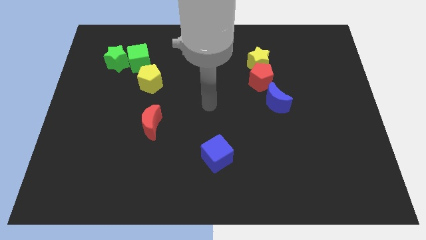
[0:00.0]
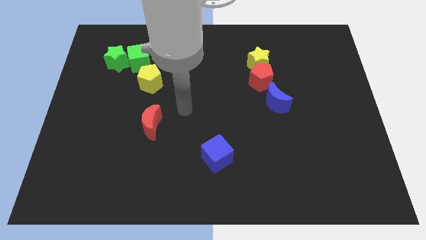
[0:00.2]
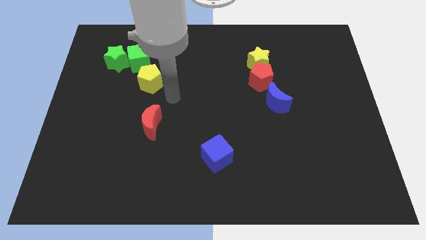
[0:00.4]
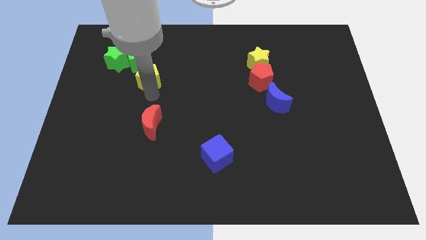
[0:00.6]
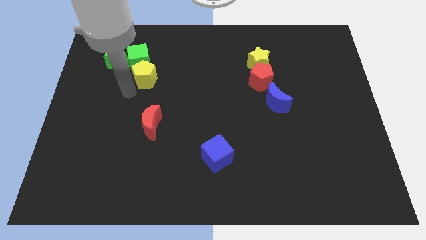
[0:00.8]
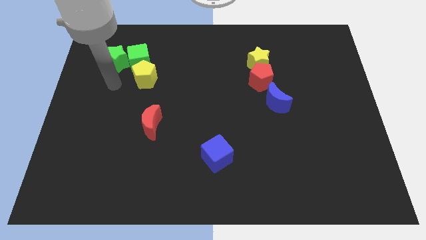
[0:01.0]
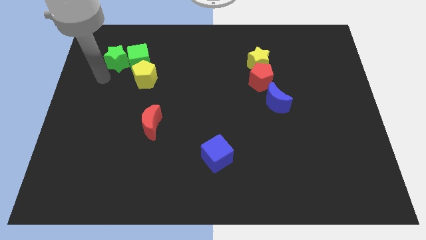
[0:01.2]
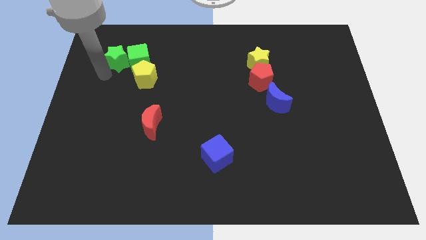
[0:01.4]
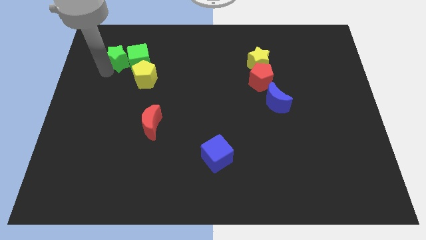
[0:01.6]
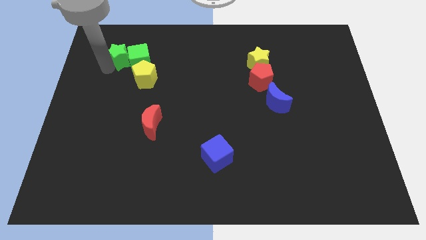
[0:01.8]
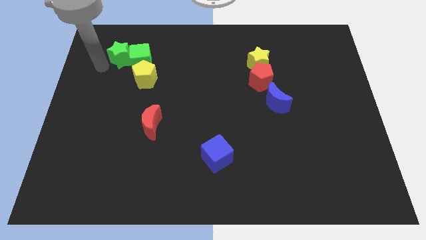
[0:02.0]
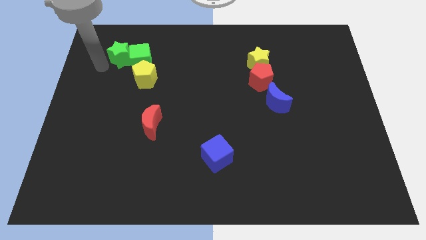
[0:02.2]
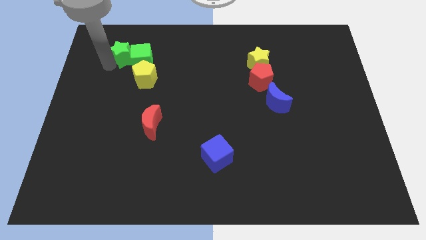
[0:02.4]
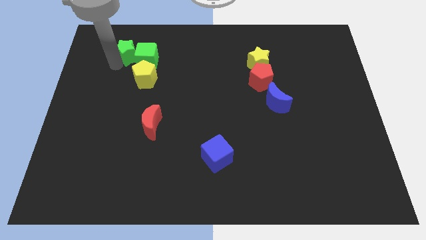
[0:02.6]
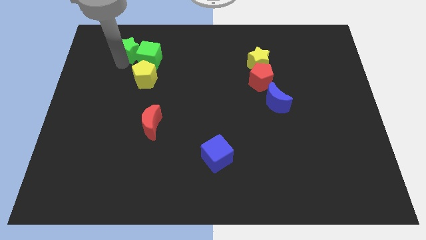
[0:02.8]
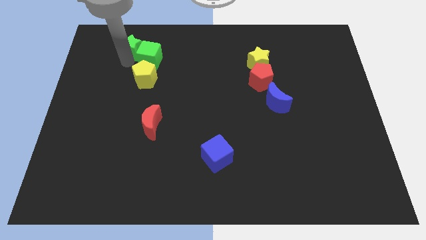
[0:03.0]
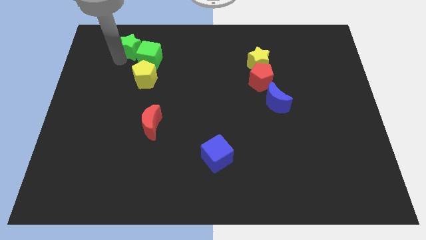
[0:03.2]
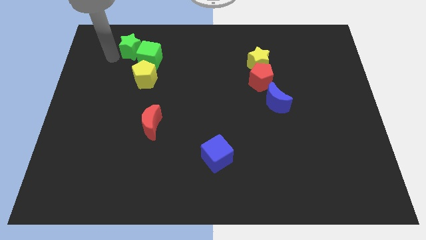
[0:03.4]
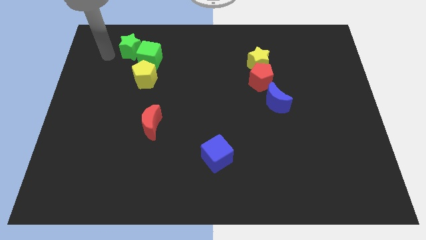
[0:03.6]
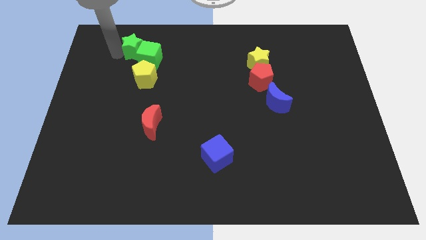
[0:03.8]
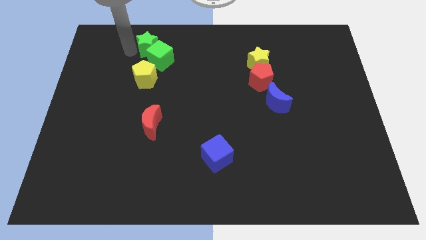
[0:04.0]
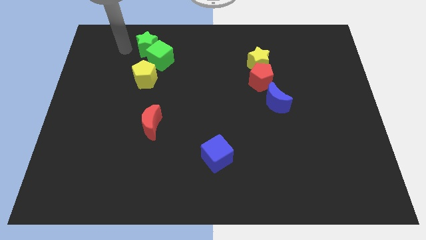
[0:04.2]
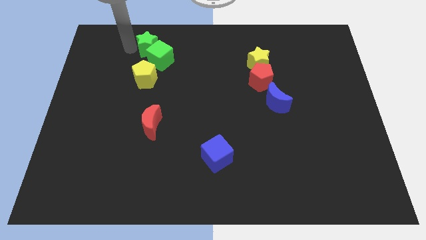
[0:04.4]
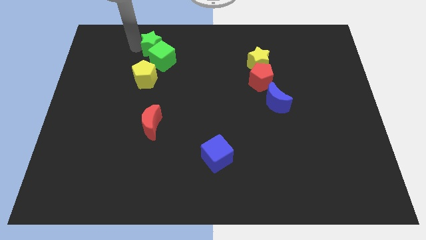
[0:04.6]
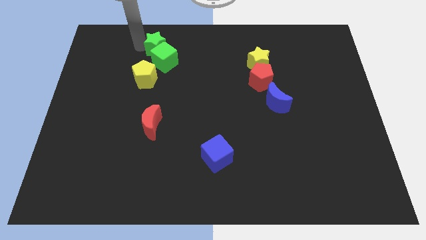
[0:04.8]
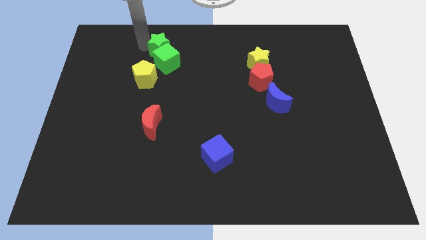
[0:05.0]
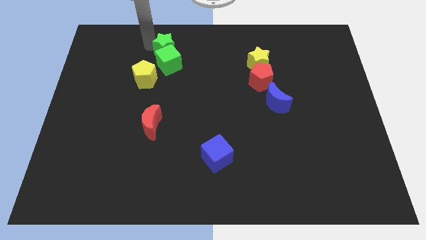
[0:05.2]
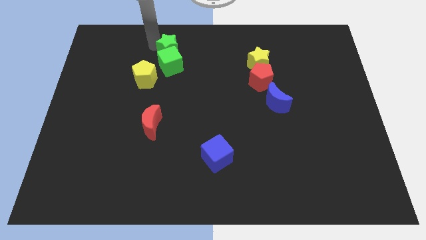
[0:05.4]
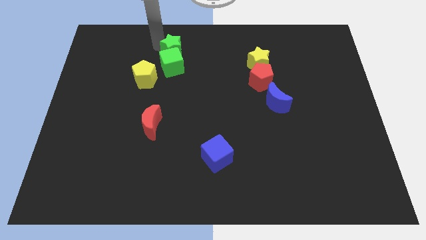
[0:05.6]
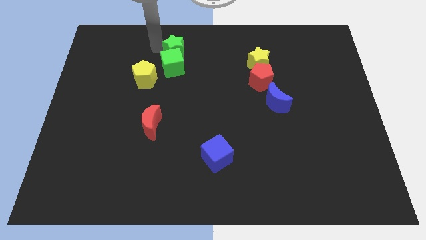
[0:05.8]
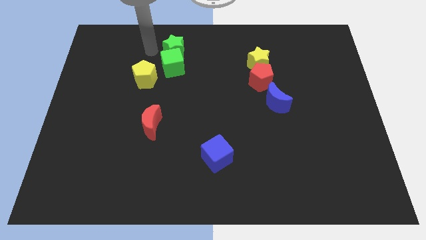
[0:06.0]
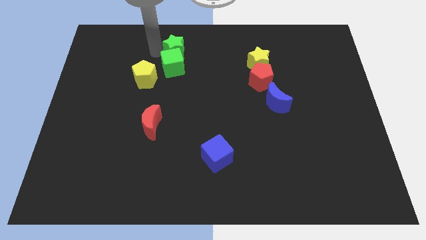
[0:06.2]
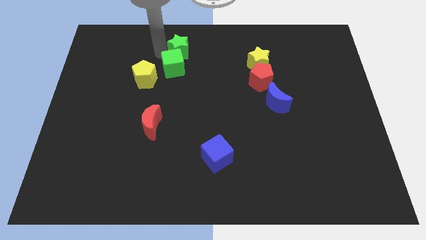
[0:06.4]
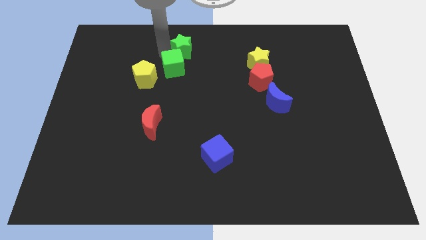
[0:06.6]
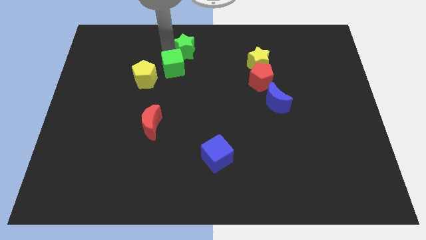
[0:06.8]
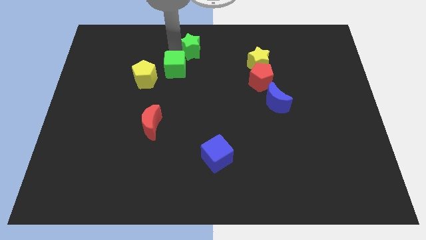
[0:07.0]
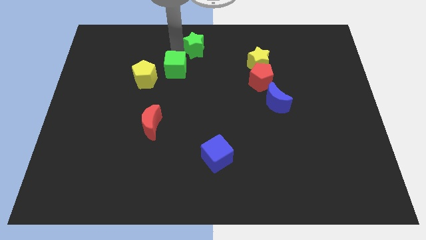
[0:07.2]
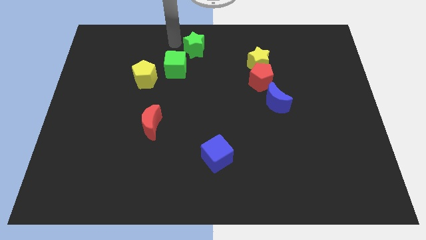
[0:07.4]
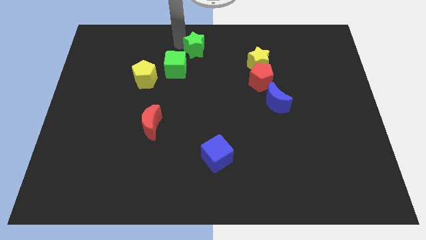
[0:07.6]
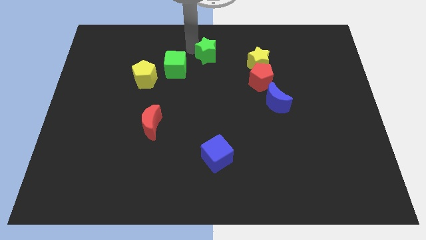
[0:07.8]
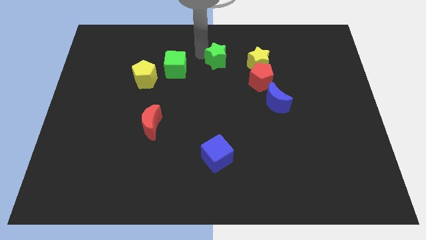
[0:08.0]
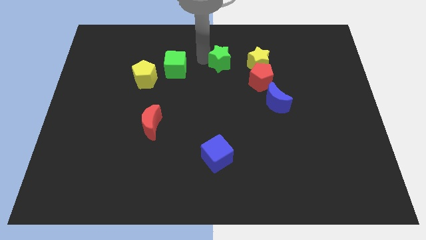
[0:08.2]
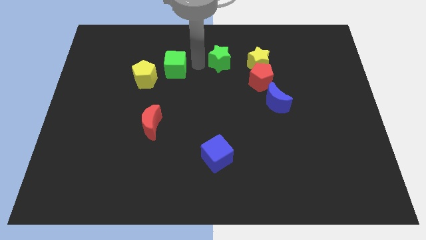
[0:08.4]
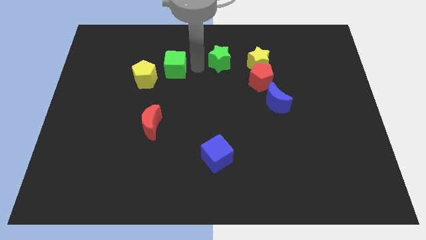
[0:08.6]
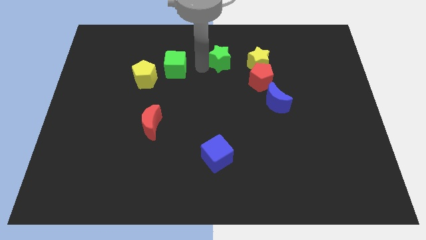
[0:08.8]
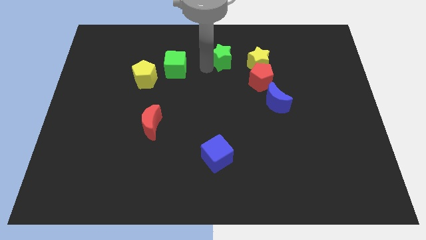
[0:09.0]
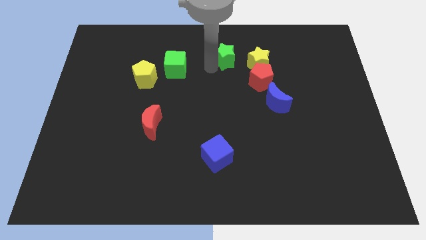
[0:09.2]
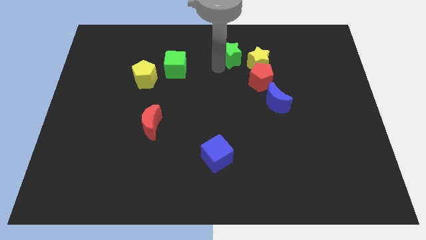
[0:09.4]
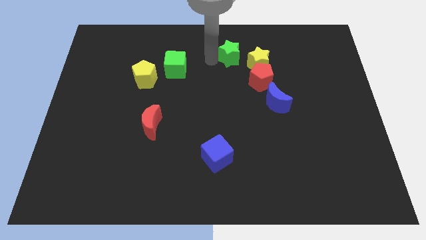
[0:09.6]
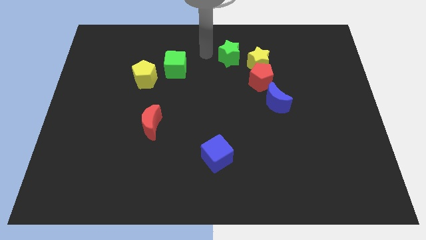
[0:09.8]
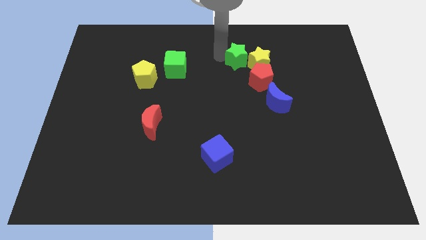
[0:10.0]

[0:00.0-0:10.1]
slide the green star towards the yellow star

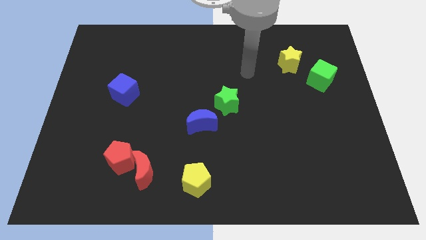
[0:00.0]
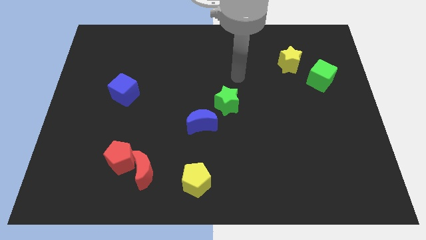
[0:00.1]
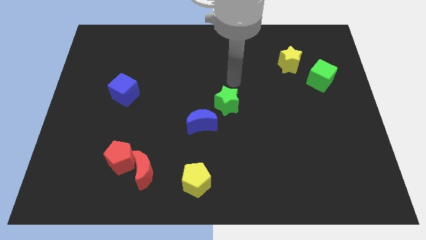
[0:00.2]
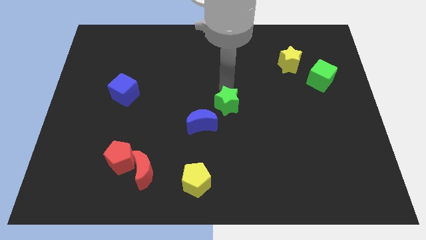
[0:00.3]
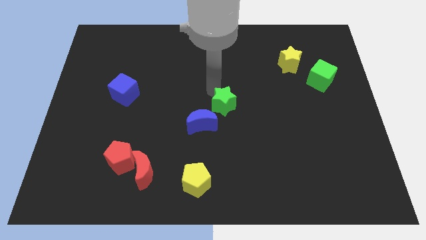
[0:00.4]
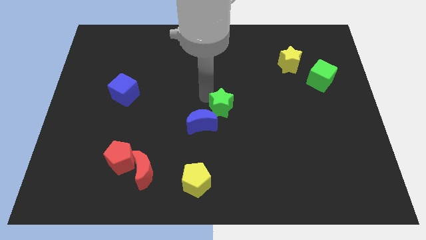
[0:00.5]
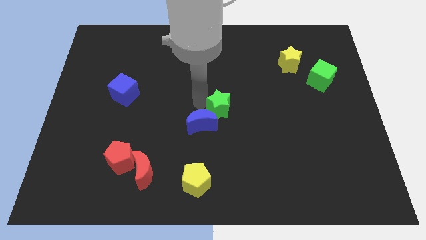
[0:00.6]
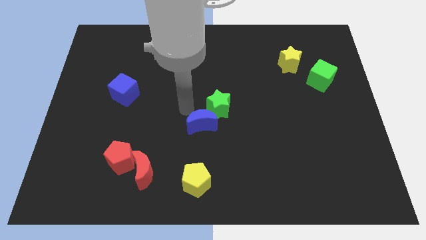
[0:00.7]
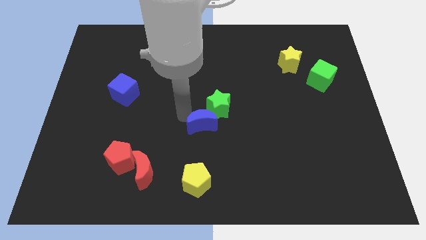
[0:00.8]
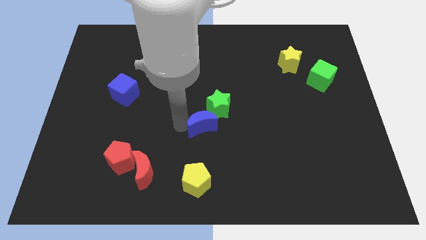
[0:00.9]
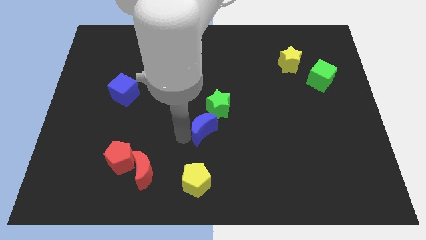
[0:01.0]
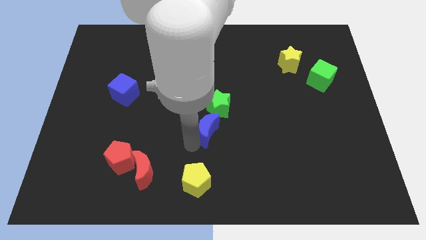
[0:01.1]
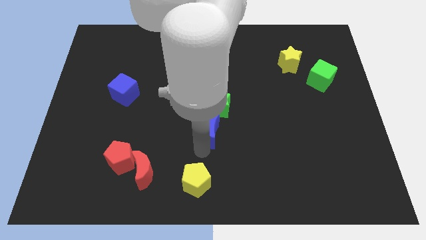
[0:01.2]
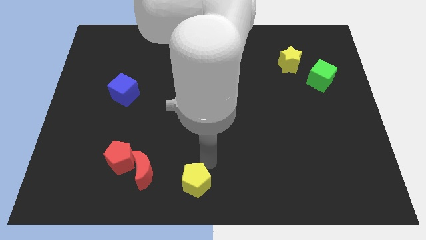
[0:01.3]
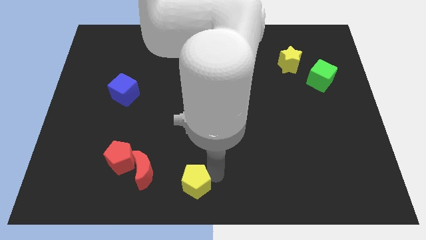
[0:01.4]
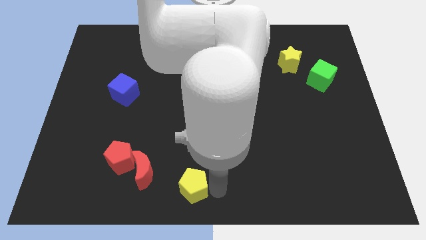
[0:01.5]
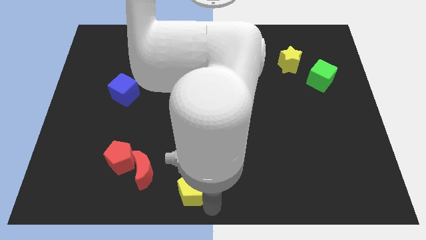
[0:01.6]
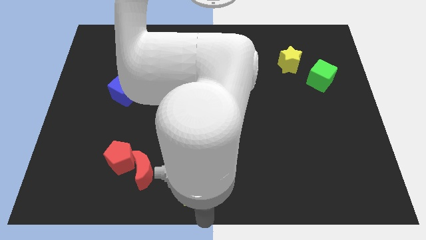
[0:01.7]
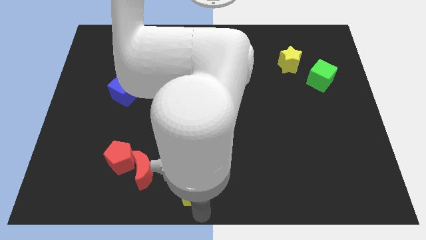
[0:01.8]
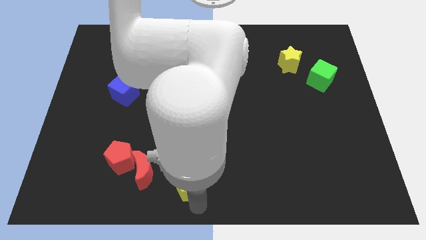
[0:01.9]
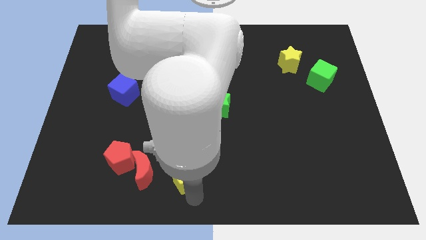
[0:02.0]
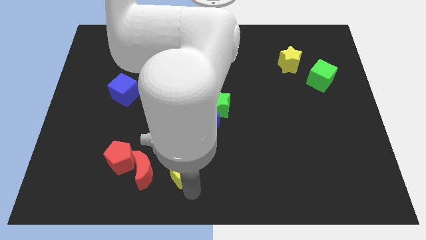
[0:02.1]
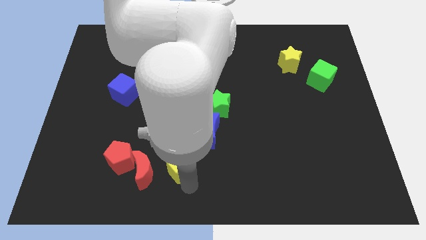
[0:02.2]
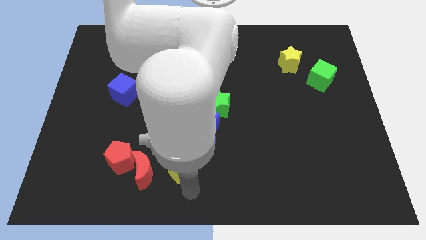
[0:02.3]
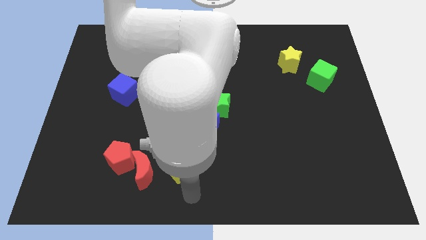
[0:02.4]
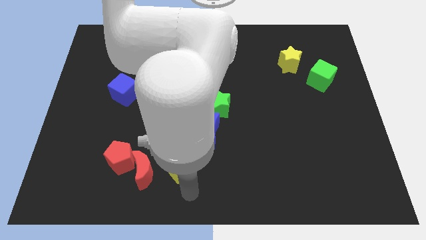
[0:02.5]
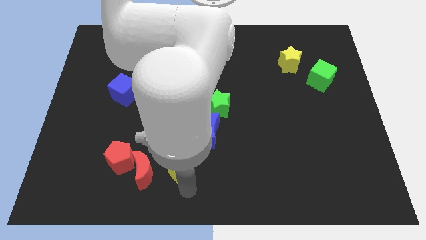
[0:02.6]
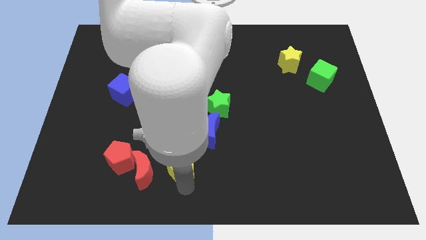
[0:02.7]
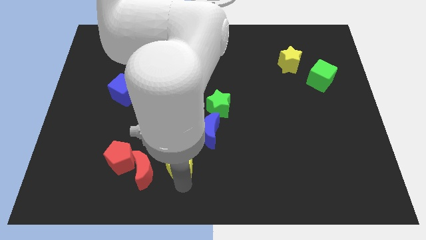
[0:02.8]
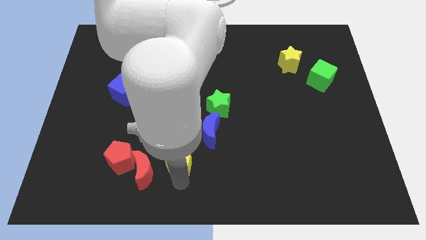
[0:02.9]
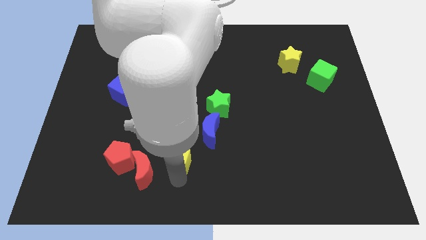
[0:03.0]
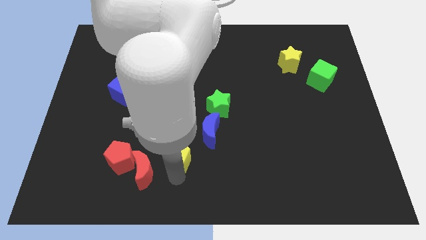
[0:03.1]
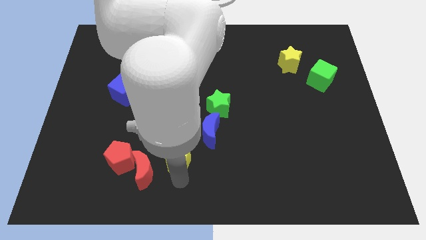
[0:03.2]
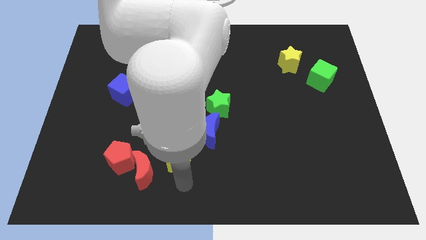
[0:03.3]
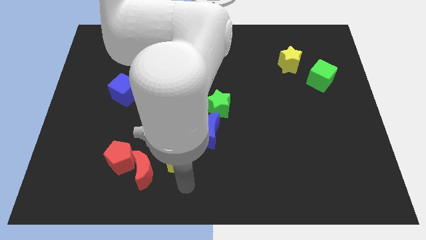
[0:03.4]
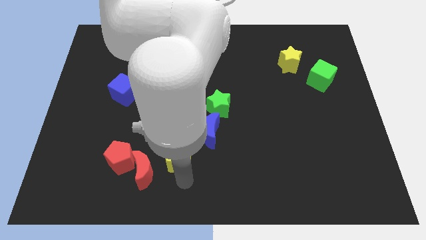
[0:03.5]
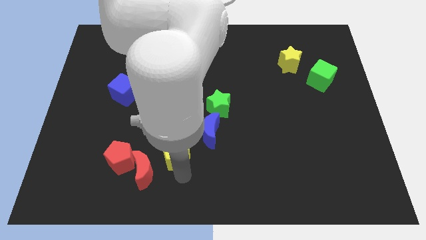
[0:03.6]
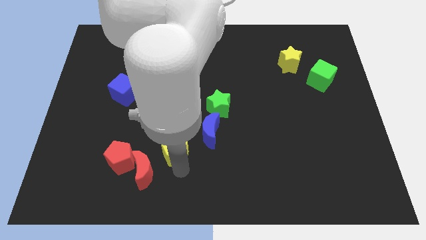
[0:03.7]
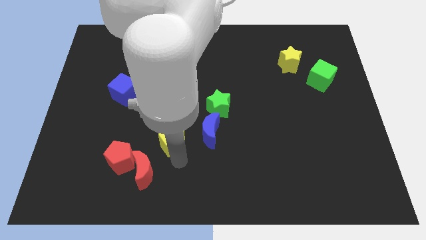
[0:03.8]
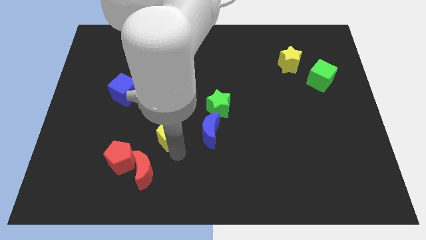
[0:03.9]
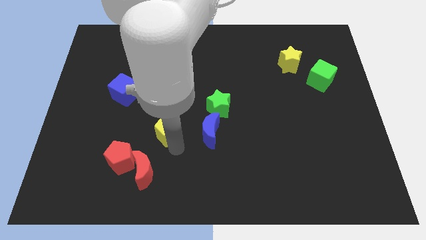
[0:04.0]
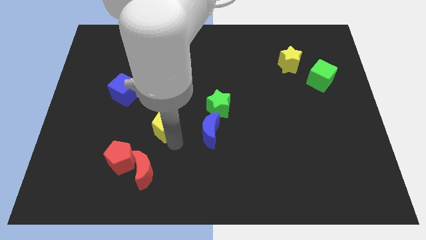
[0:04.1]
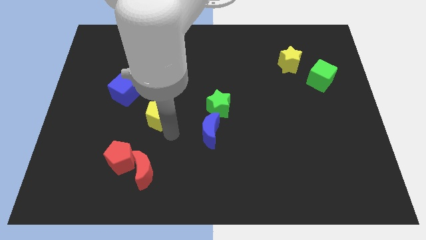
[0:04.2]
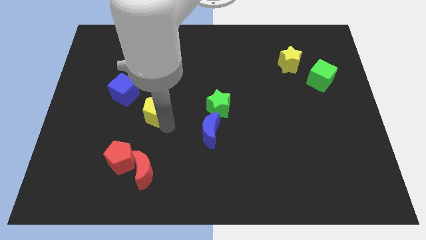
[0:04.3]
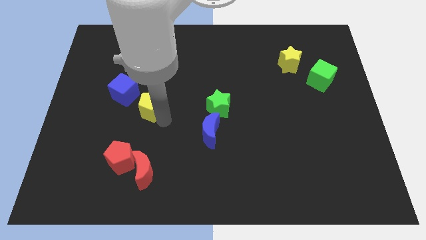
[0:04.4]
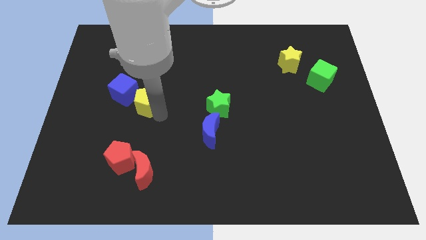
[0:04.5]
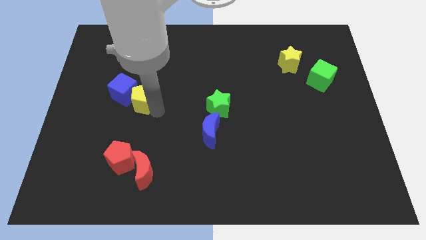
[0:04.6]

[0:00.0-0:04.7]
push the yellow pentagon next to the blue cube
